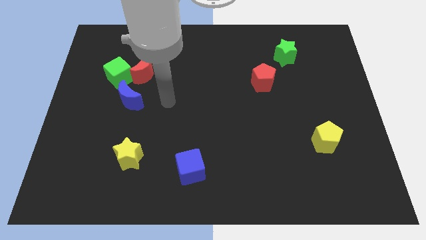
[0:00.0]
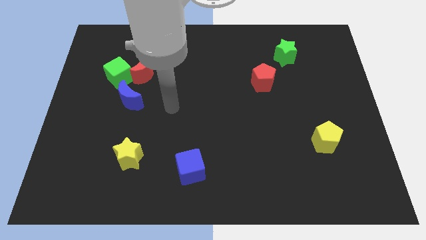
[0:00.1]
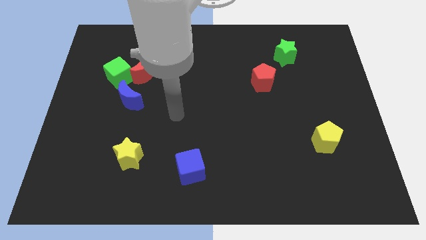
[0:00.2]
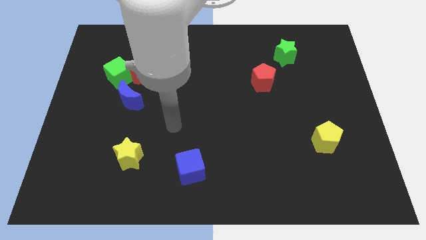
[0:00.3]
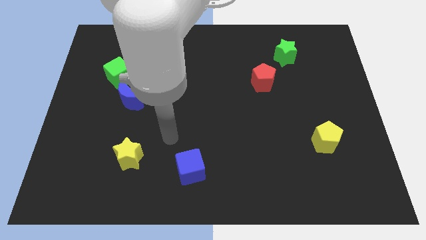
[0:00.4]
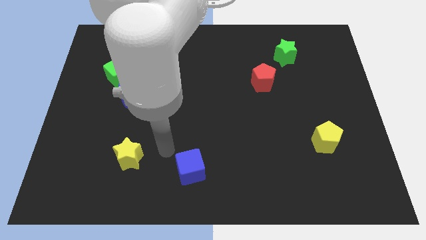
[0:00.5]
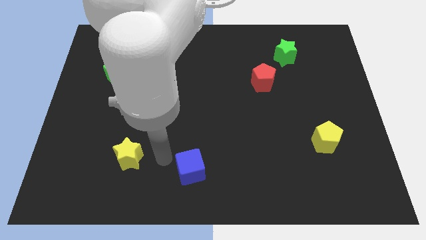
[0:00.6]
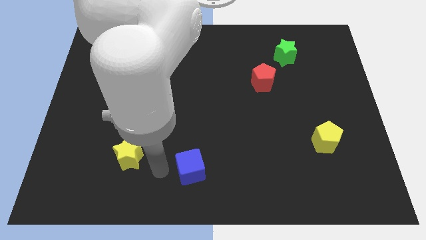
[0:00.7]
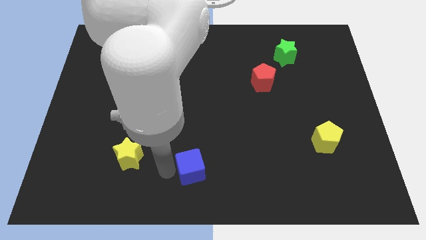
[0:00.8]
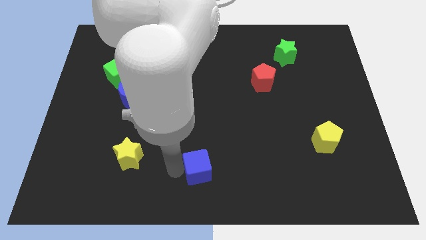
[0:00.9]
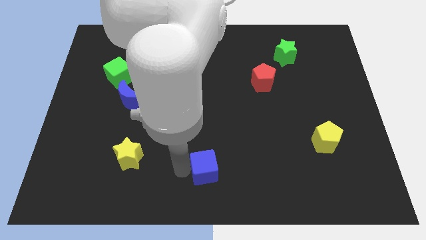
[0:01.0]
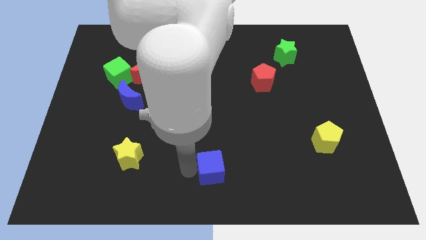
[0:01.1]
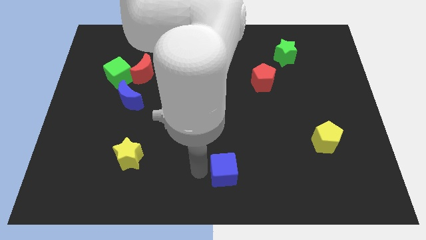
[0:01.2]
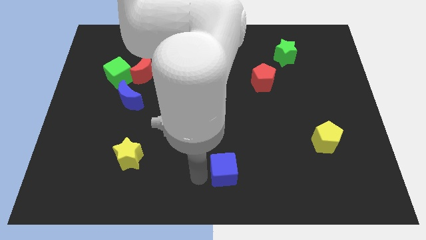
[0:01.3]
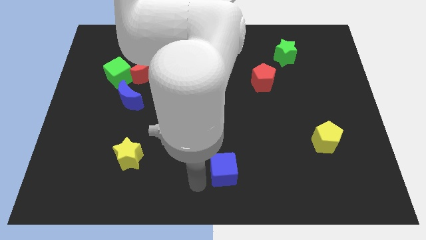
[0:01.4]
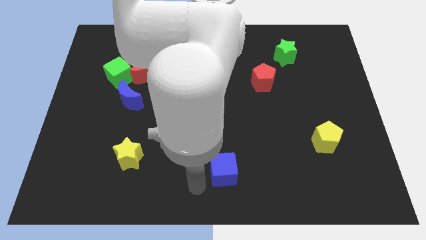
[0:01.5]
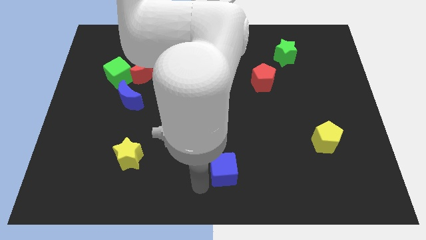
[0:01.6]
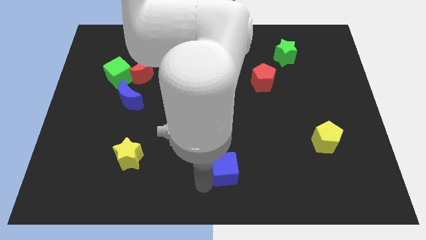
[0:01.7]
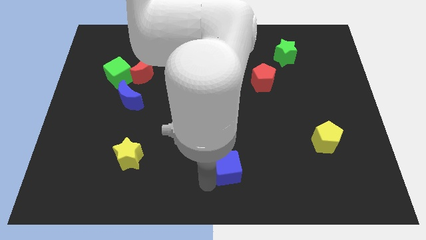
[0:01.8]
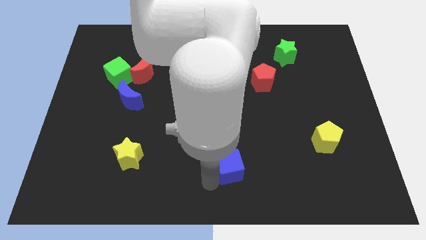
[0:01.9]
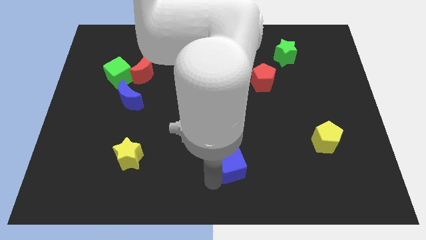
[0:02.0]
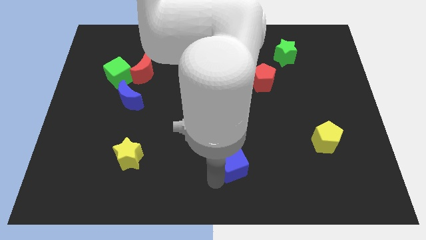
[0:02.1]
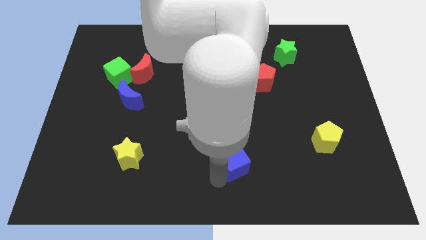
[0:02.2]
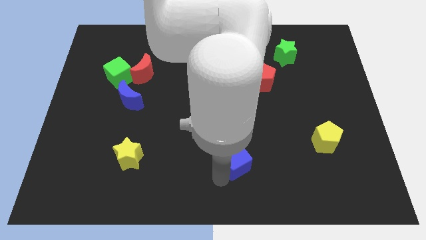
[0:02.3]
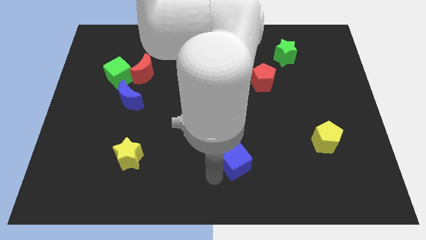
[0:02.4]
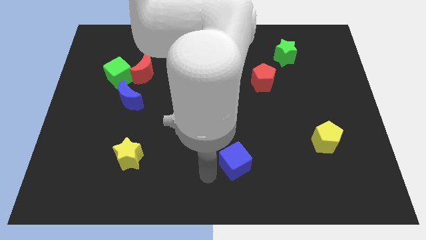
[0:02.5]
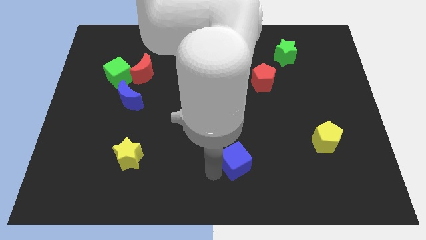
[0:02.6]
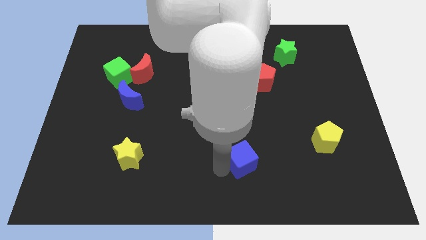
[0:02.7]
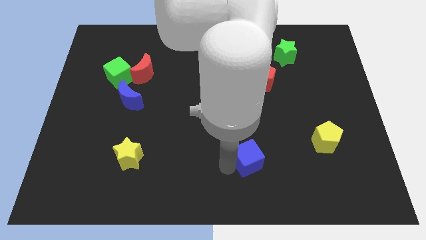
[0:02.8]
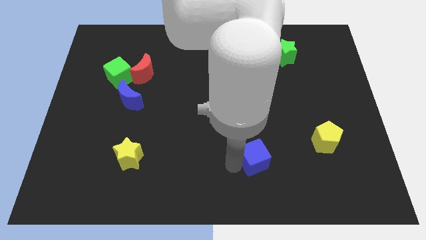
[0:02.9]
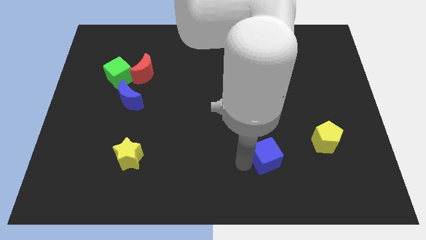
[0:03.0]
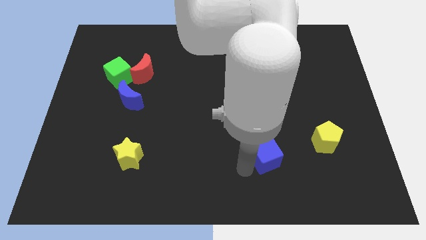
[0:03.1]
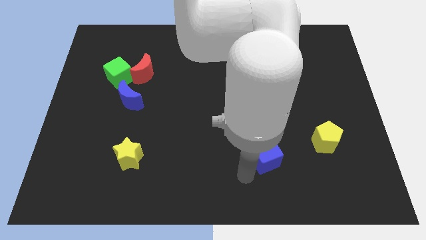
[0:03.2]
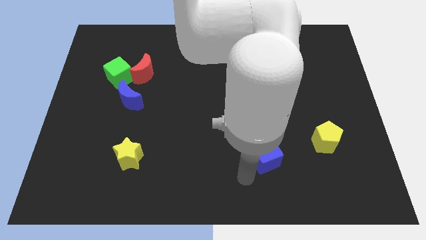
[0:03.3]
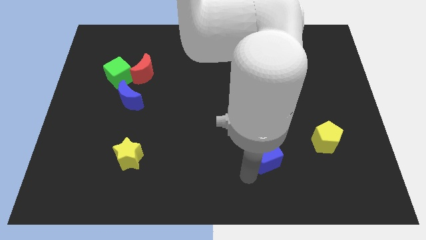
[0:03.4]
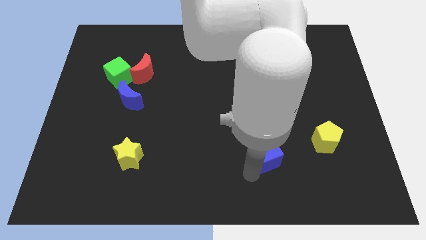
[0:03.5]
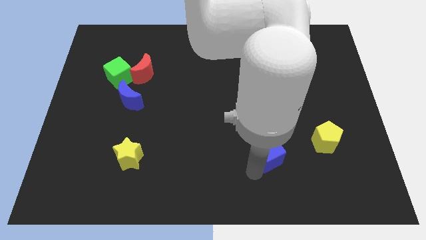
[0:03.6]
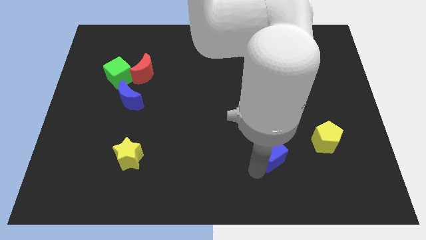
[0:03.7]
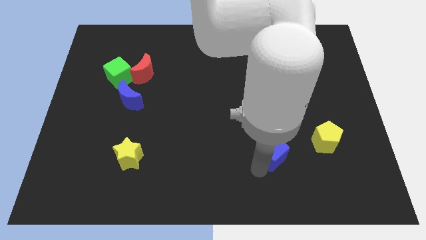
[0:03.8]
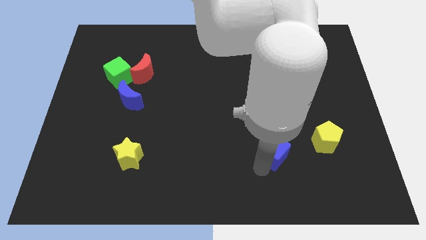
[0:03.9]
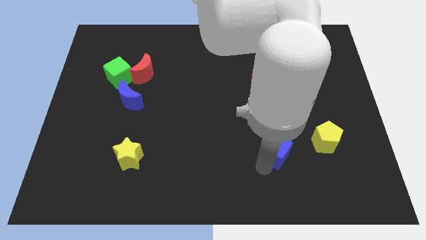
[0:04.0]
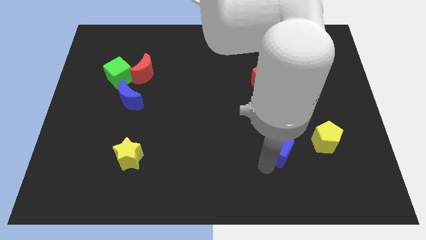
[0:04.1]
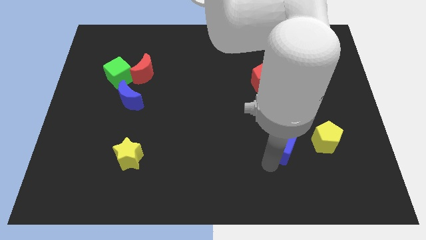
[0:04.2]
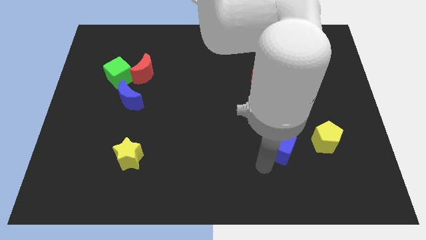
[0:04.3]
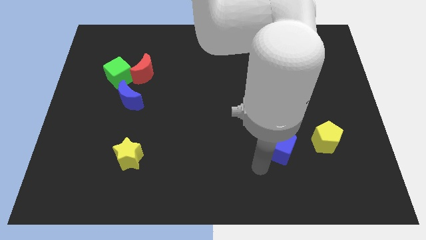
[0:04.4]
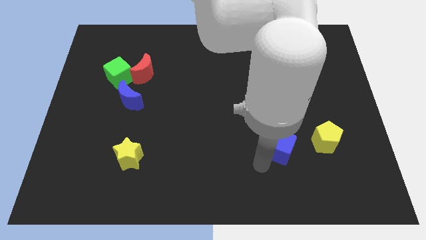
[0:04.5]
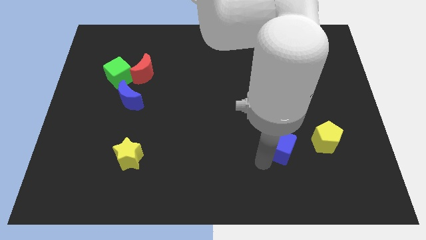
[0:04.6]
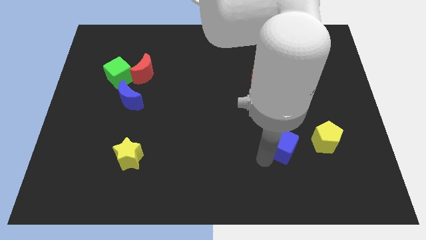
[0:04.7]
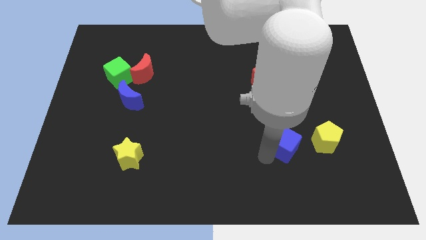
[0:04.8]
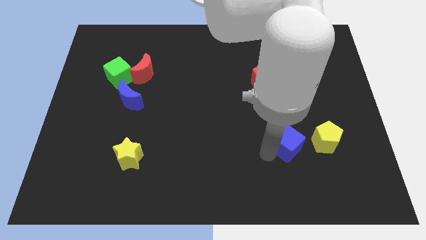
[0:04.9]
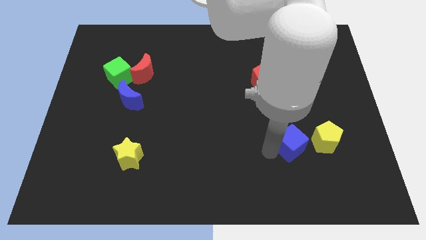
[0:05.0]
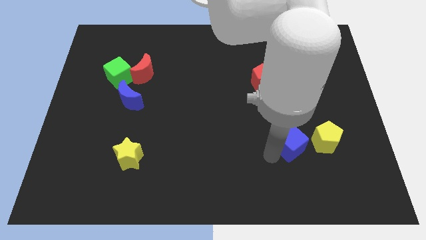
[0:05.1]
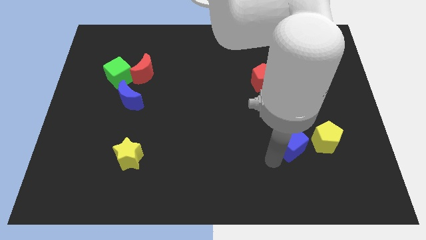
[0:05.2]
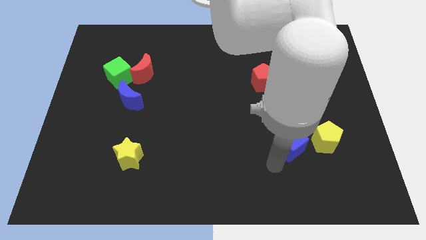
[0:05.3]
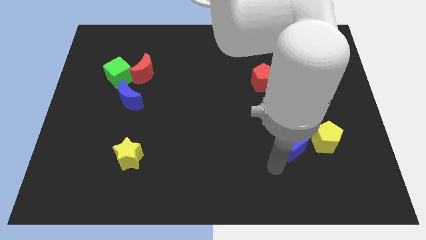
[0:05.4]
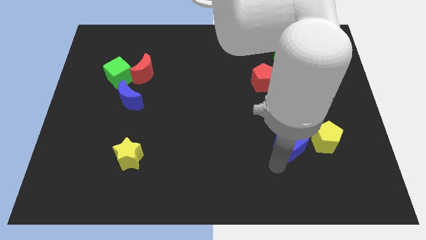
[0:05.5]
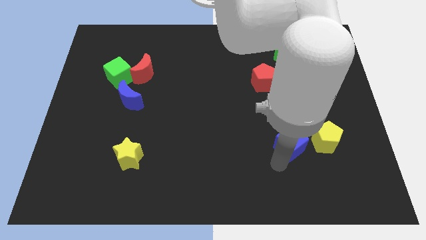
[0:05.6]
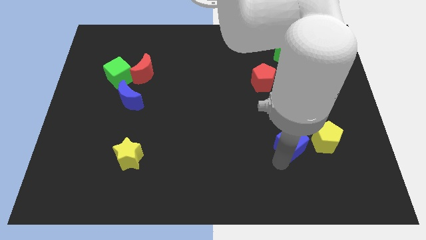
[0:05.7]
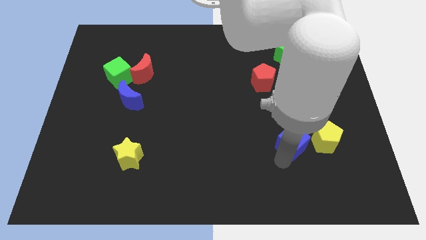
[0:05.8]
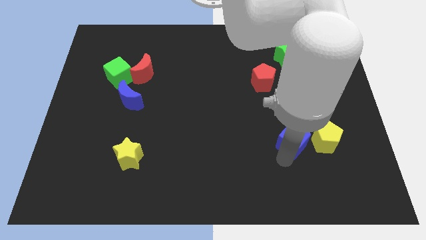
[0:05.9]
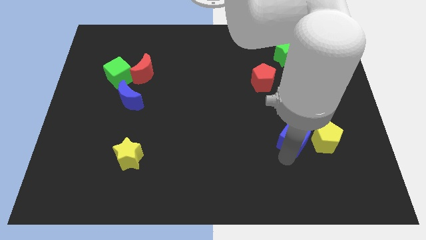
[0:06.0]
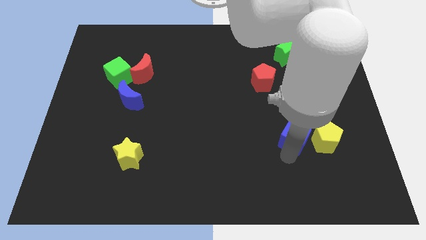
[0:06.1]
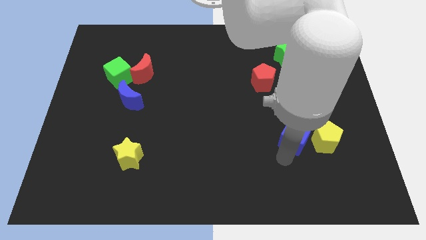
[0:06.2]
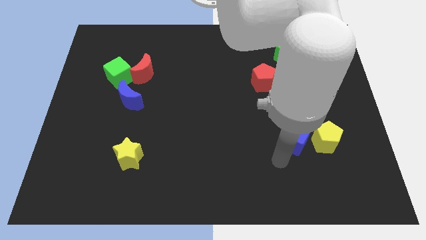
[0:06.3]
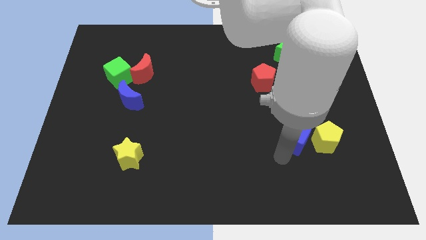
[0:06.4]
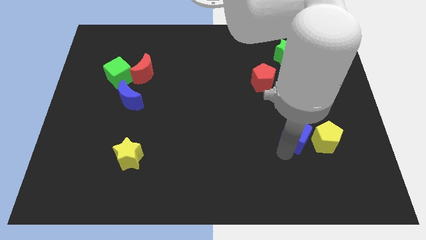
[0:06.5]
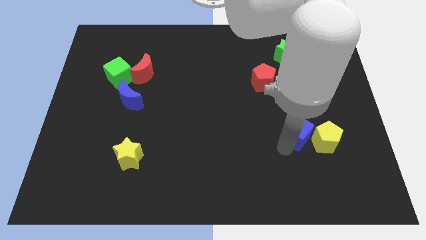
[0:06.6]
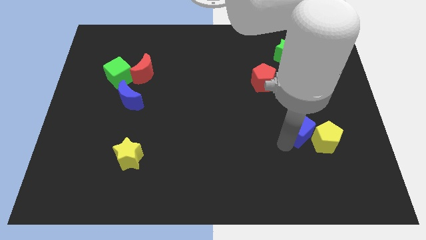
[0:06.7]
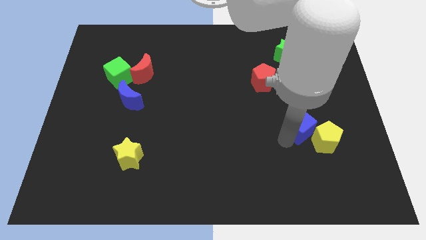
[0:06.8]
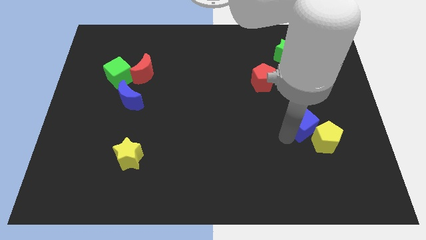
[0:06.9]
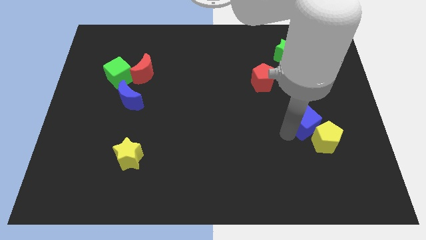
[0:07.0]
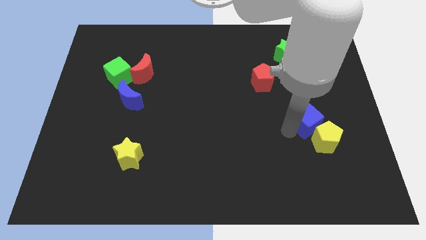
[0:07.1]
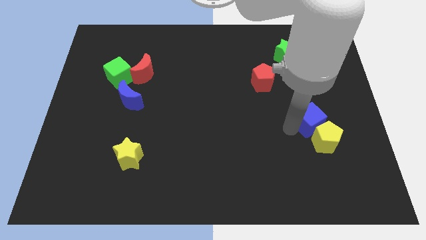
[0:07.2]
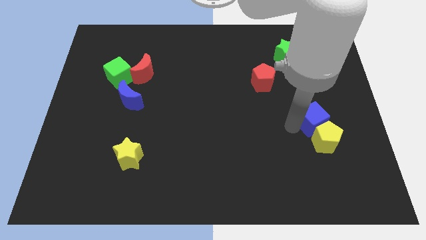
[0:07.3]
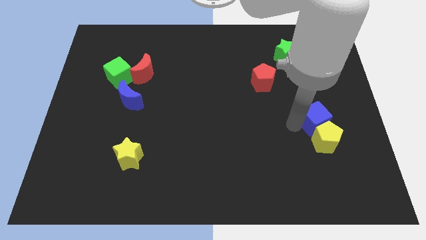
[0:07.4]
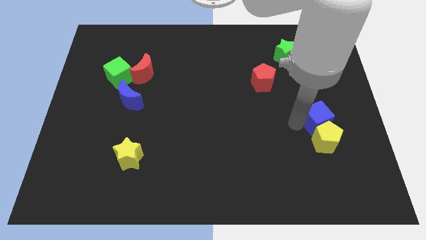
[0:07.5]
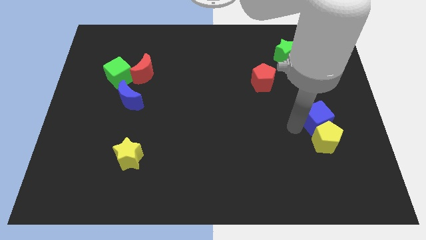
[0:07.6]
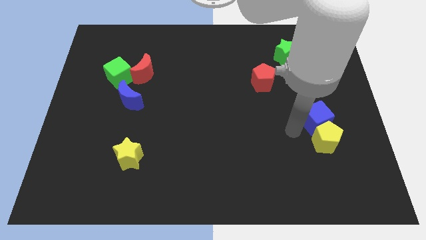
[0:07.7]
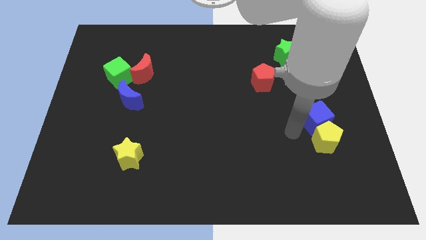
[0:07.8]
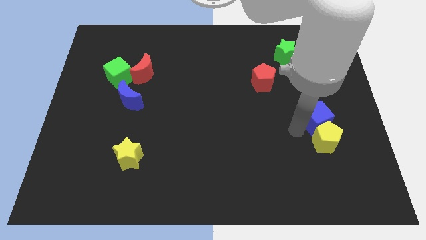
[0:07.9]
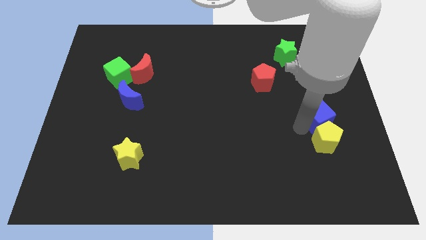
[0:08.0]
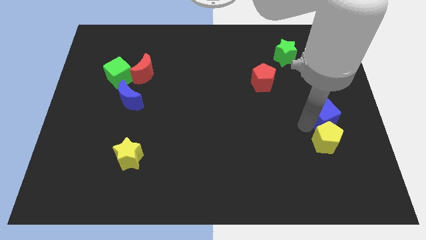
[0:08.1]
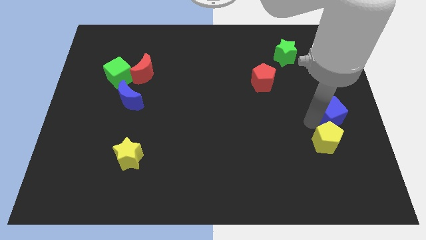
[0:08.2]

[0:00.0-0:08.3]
push the blue cube to the right side of the board
